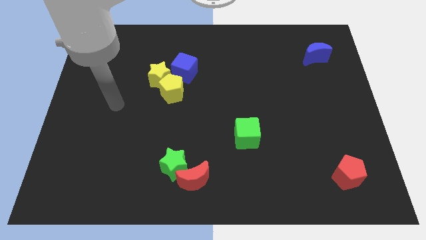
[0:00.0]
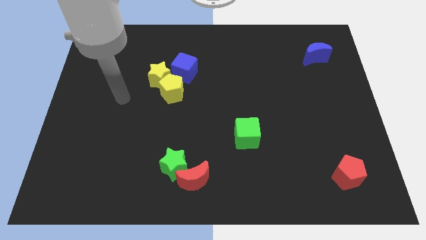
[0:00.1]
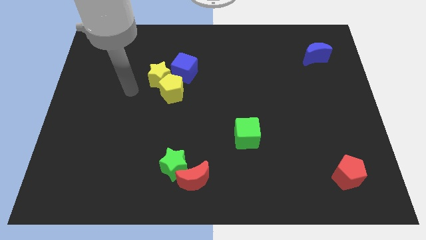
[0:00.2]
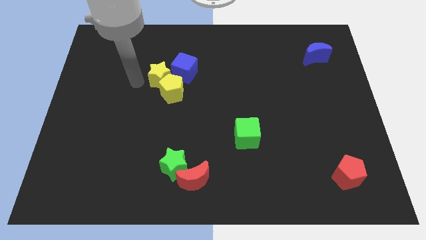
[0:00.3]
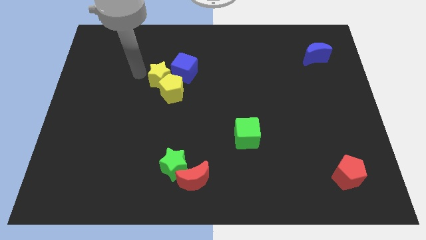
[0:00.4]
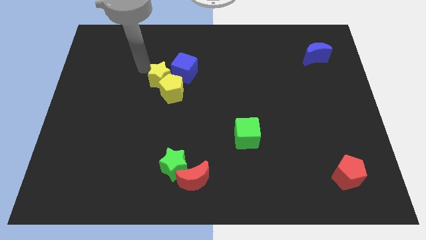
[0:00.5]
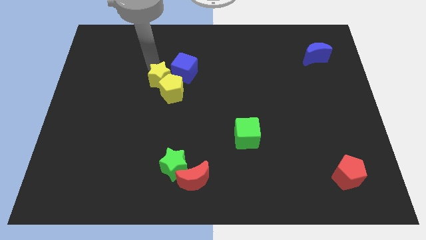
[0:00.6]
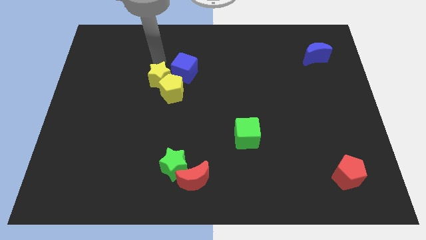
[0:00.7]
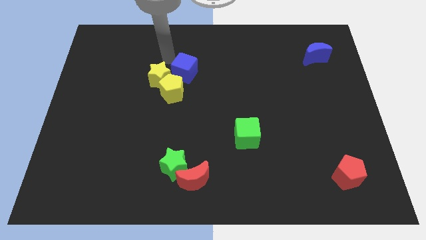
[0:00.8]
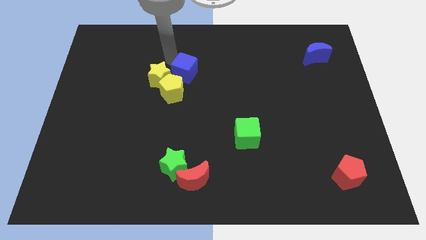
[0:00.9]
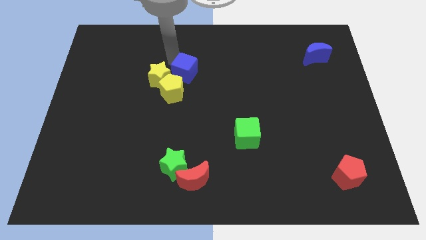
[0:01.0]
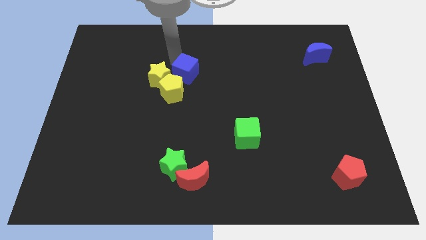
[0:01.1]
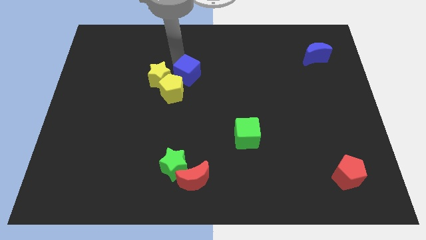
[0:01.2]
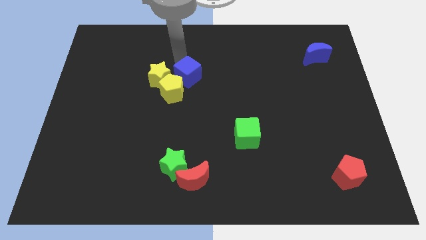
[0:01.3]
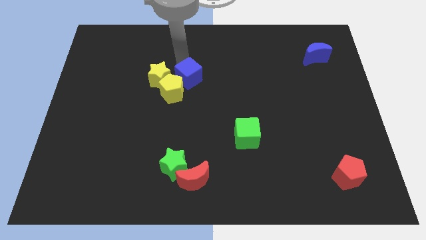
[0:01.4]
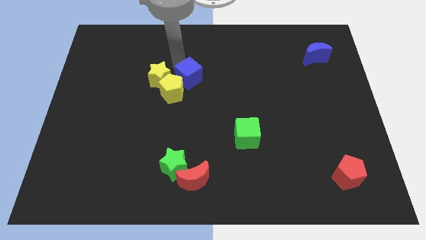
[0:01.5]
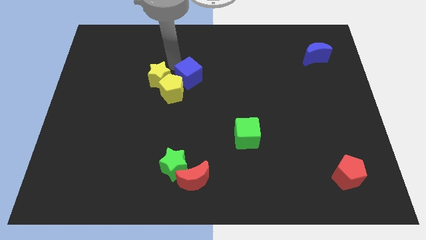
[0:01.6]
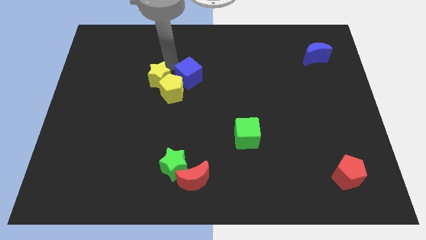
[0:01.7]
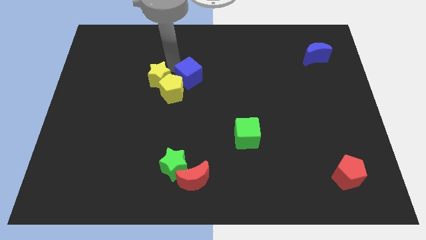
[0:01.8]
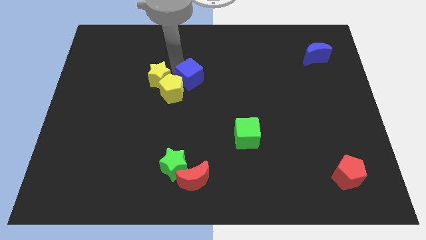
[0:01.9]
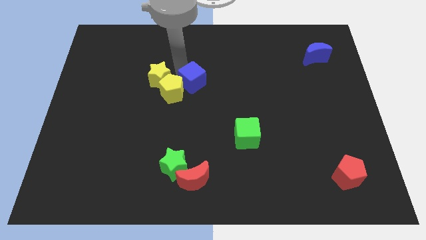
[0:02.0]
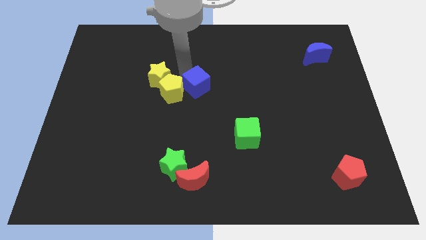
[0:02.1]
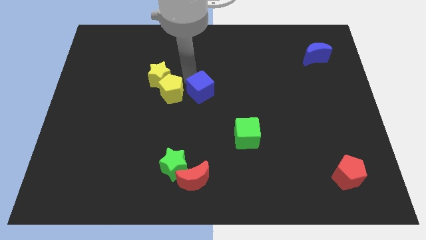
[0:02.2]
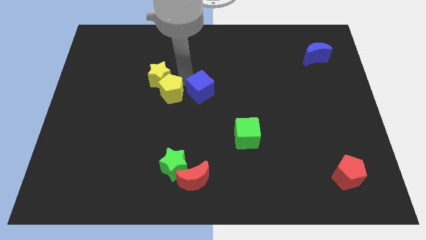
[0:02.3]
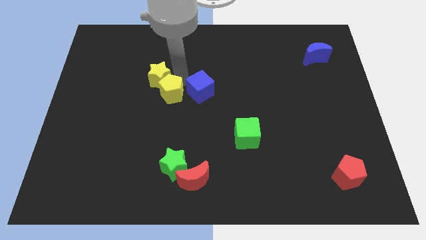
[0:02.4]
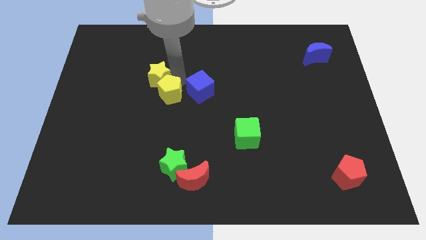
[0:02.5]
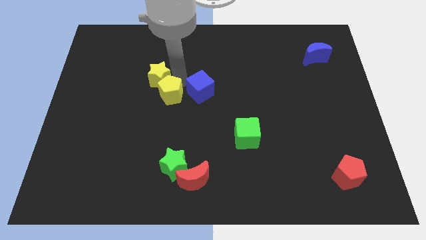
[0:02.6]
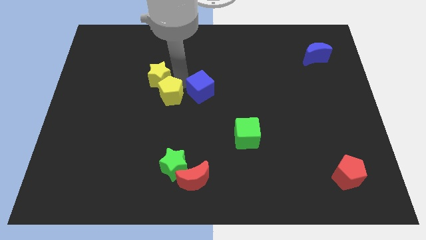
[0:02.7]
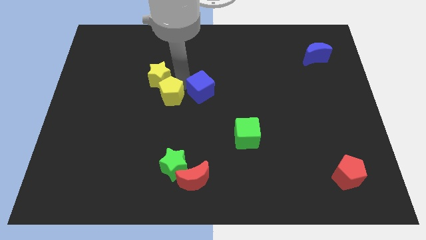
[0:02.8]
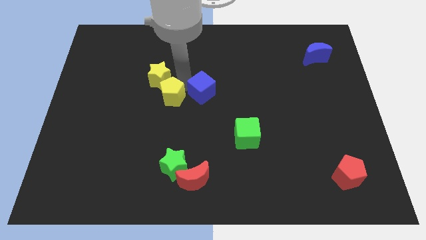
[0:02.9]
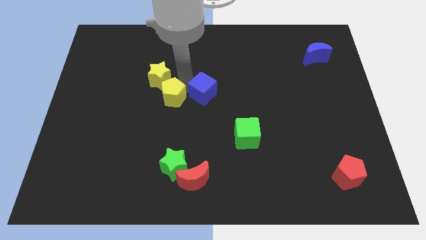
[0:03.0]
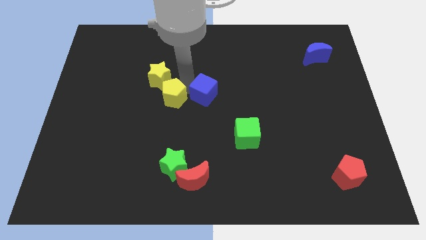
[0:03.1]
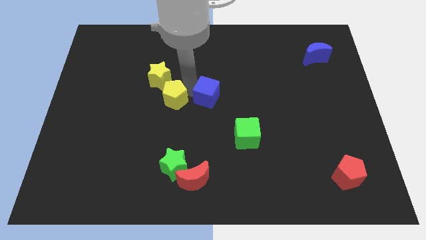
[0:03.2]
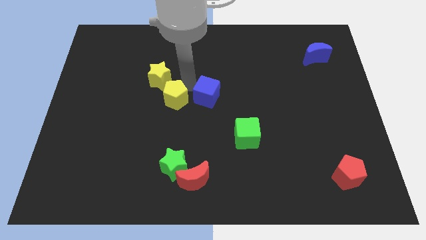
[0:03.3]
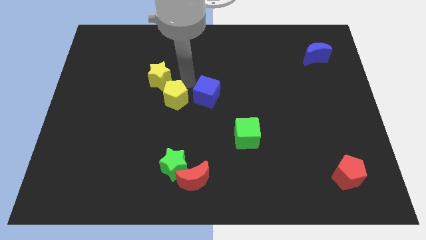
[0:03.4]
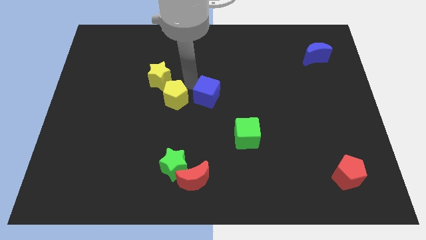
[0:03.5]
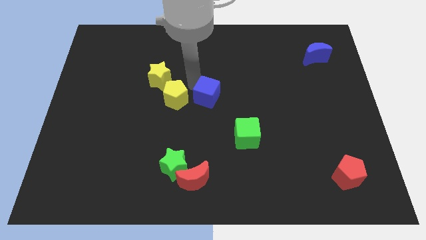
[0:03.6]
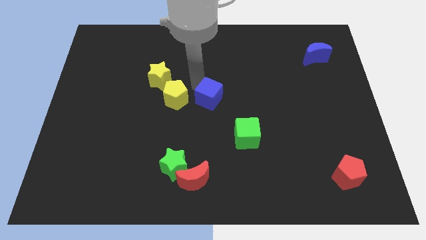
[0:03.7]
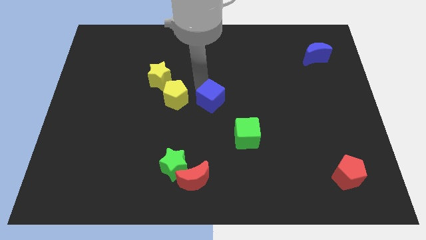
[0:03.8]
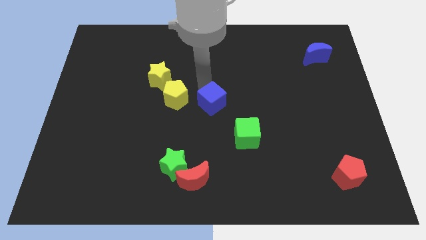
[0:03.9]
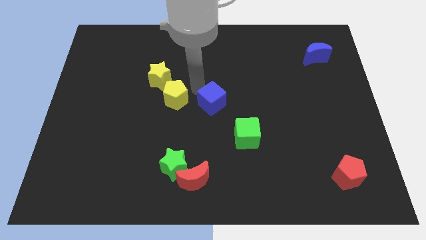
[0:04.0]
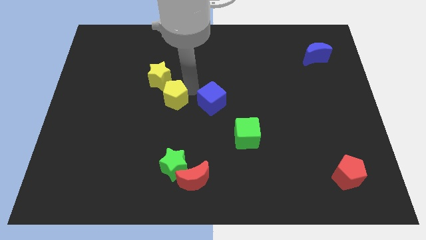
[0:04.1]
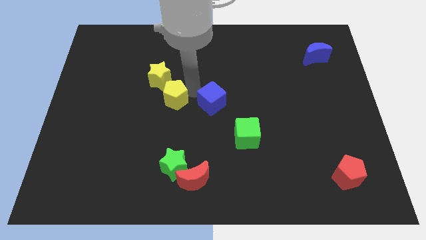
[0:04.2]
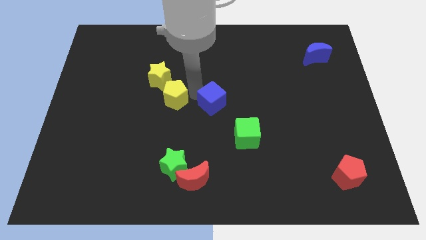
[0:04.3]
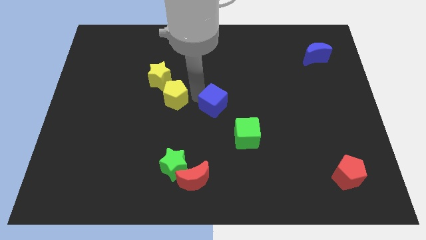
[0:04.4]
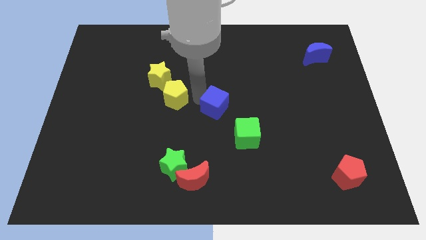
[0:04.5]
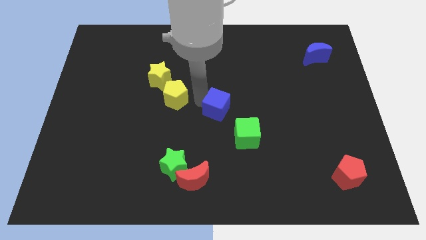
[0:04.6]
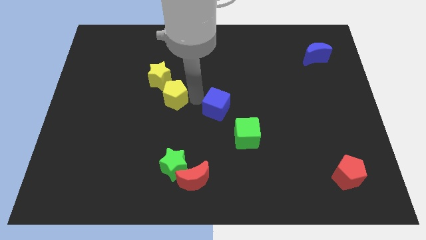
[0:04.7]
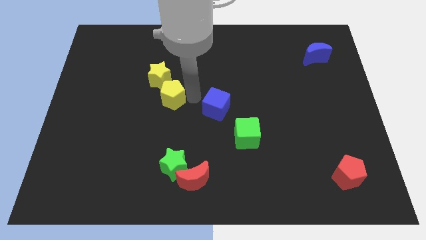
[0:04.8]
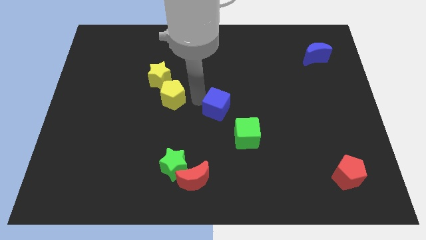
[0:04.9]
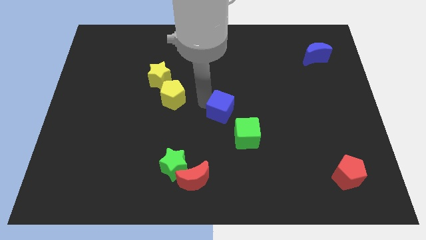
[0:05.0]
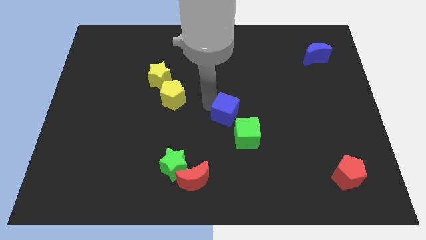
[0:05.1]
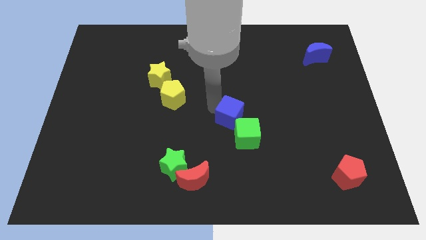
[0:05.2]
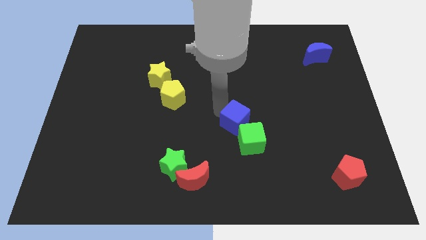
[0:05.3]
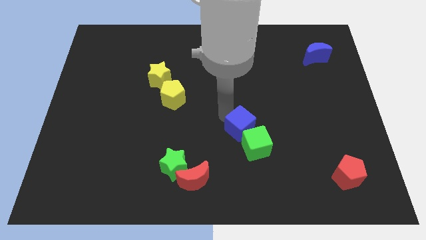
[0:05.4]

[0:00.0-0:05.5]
push the blue cube downwards and then right
